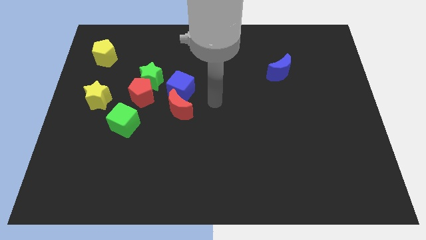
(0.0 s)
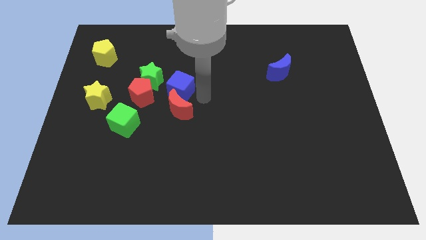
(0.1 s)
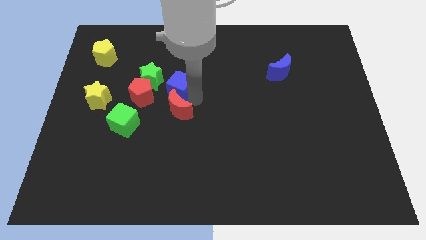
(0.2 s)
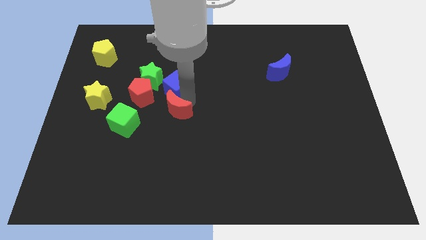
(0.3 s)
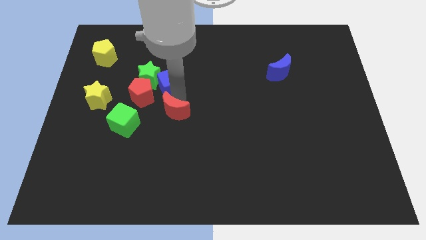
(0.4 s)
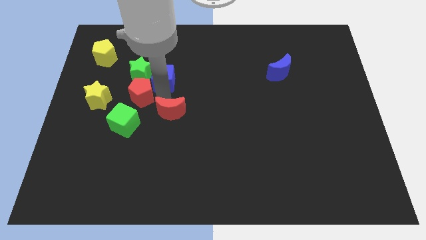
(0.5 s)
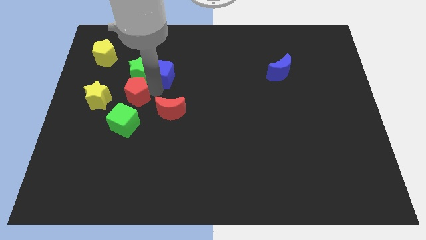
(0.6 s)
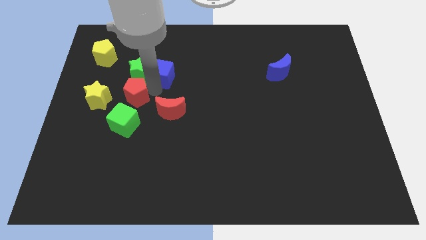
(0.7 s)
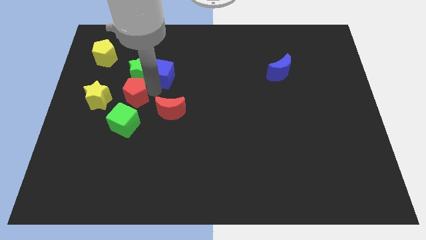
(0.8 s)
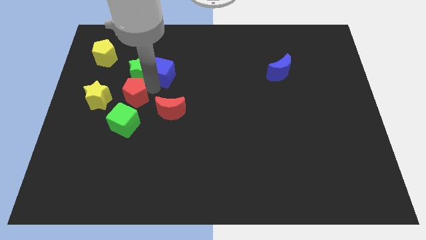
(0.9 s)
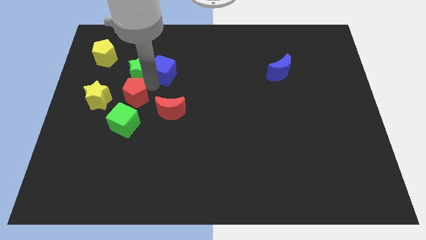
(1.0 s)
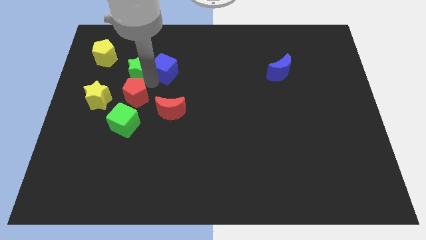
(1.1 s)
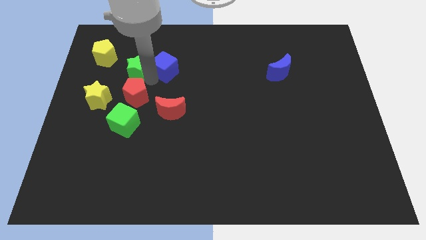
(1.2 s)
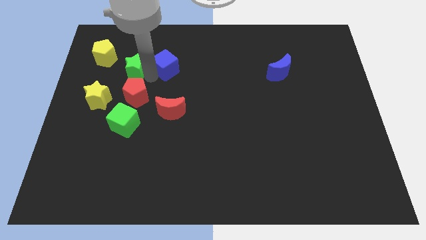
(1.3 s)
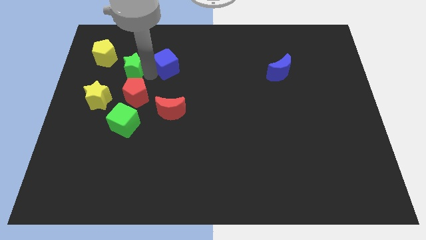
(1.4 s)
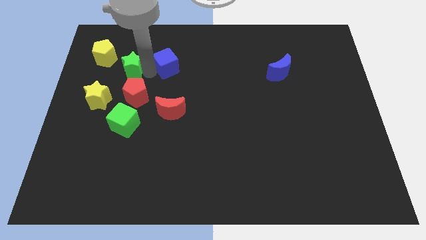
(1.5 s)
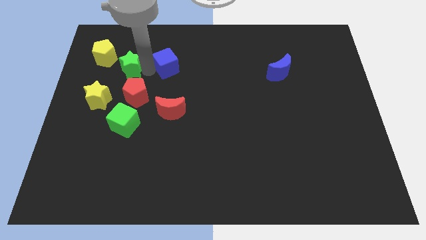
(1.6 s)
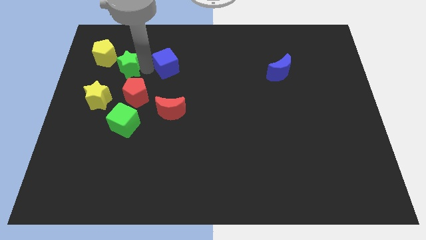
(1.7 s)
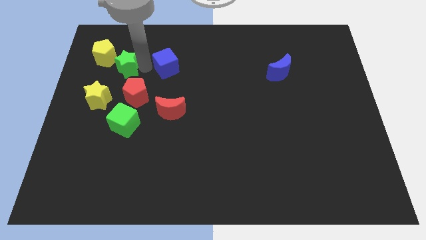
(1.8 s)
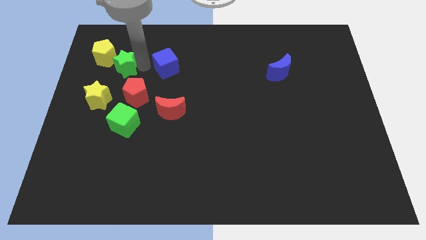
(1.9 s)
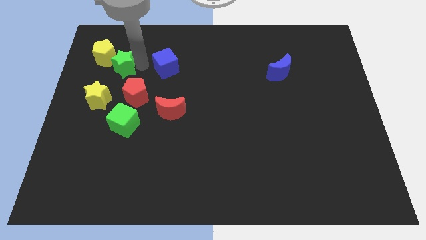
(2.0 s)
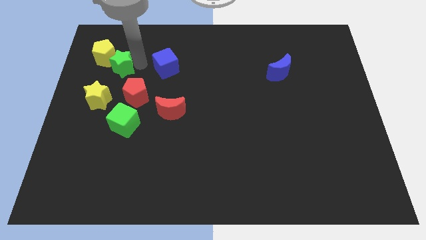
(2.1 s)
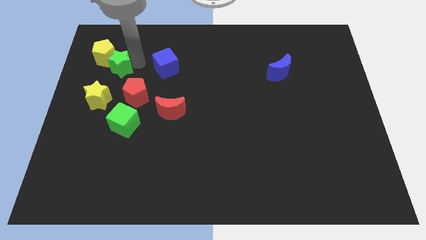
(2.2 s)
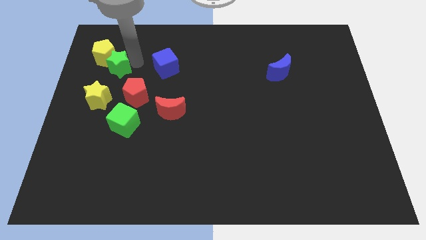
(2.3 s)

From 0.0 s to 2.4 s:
pull the green star apart from the red pentagon and blue cube

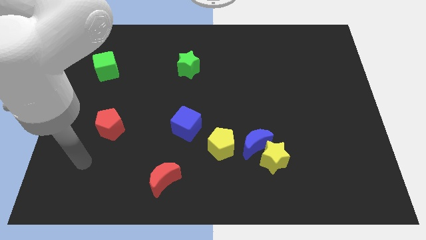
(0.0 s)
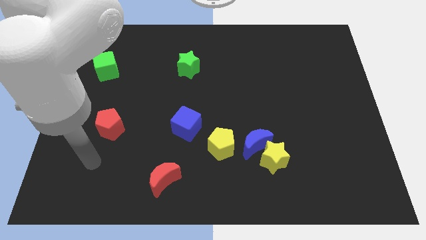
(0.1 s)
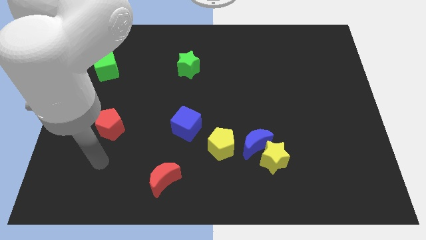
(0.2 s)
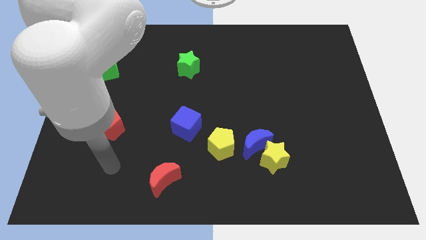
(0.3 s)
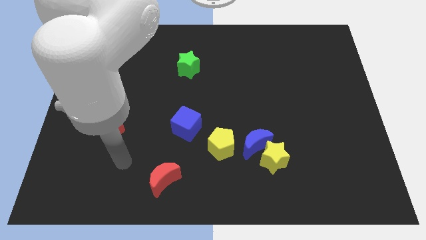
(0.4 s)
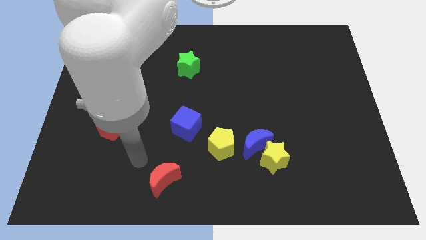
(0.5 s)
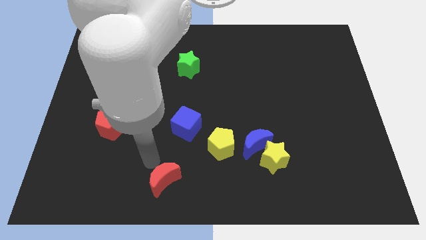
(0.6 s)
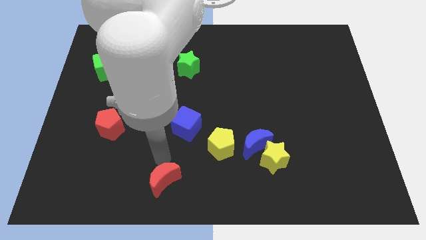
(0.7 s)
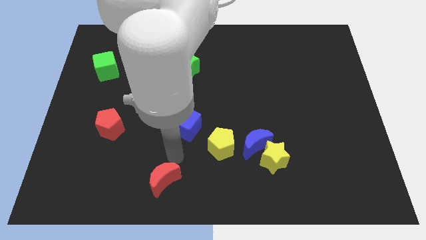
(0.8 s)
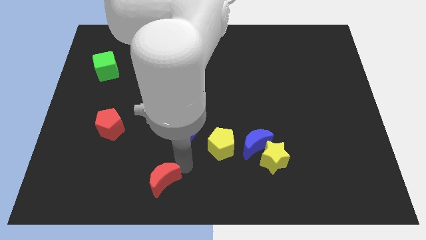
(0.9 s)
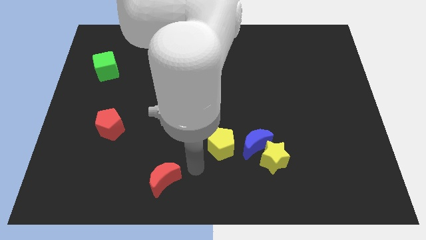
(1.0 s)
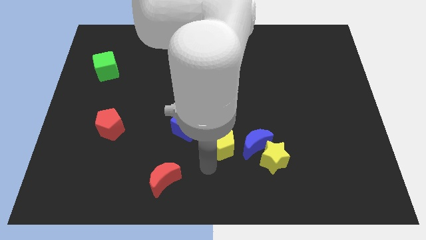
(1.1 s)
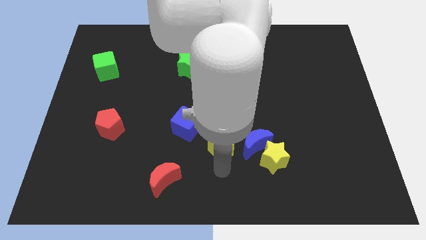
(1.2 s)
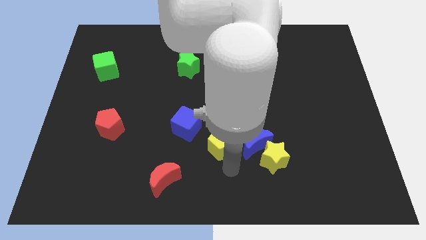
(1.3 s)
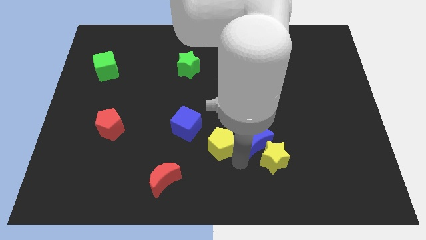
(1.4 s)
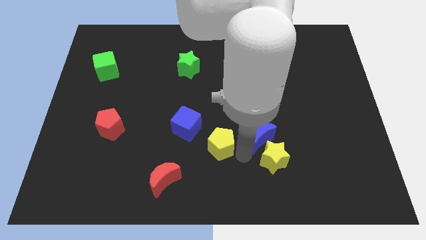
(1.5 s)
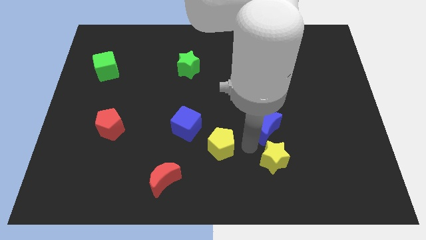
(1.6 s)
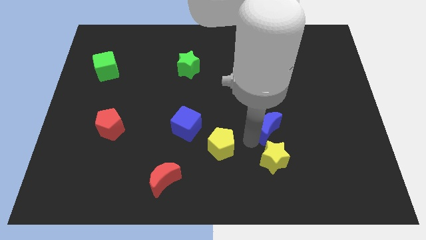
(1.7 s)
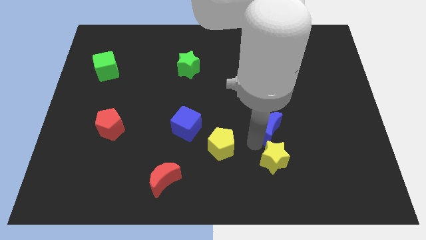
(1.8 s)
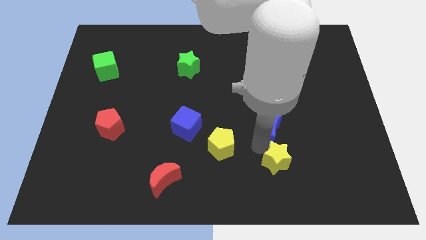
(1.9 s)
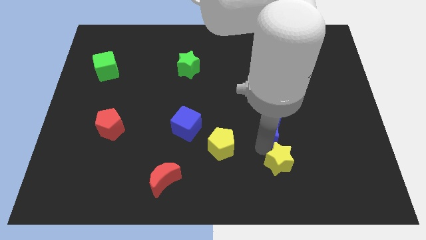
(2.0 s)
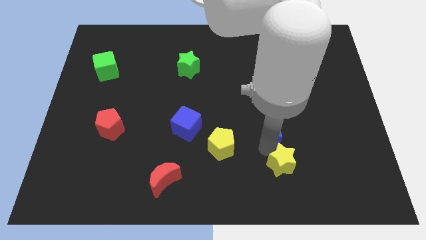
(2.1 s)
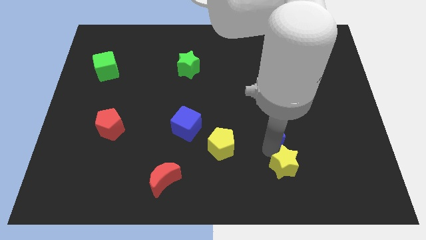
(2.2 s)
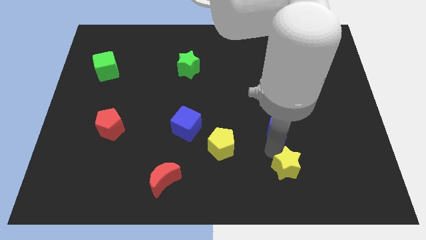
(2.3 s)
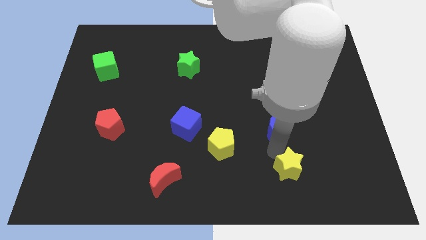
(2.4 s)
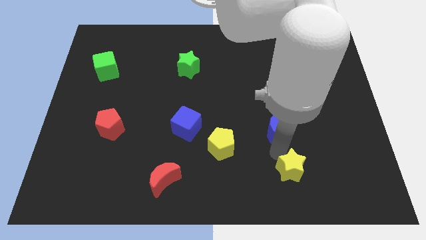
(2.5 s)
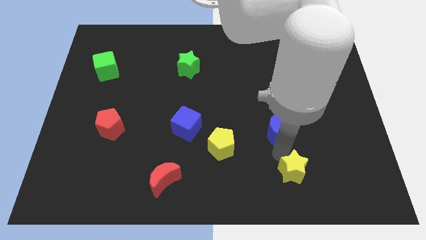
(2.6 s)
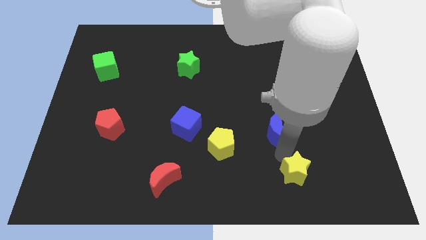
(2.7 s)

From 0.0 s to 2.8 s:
move the yellow star away from the blue moon

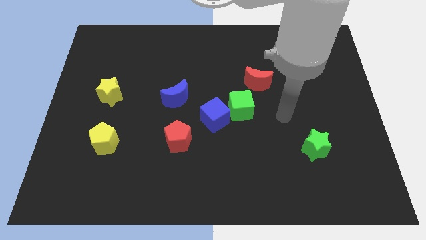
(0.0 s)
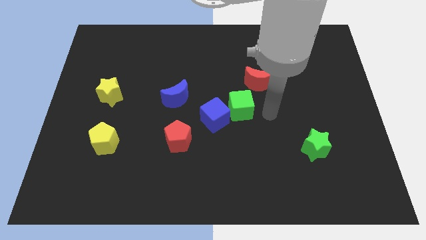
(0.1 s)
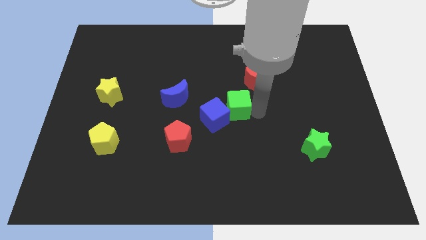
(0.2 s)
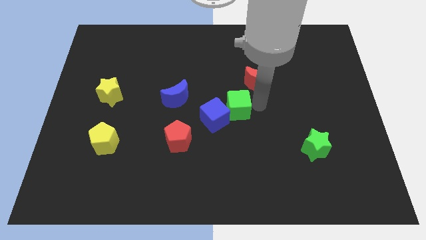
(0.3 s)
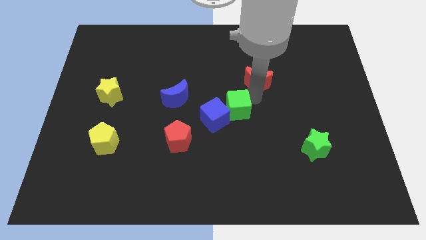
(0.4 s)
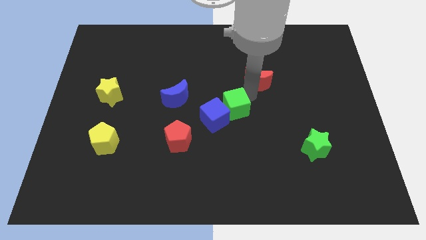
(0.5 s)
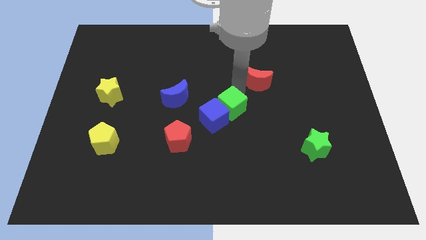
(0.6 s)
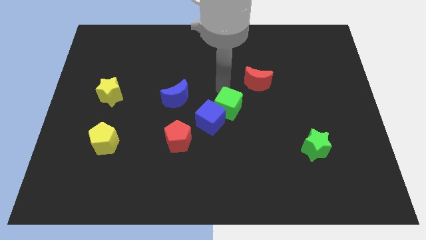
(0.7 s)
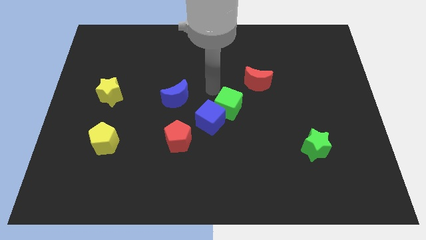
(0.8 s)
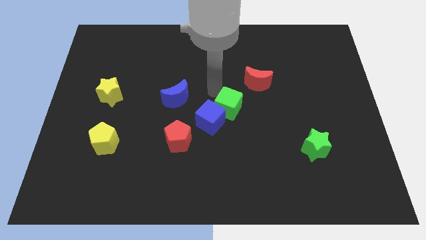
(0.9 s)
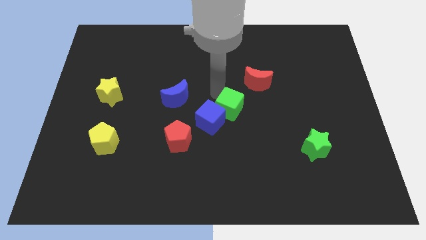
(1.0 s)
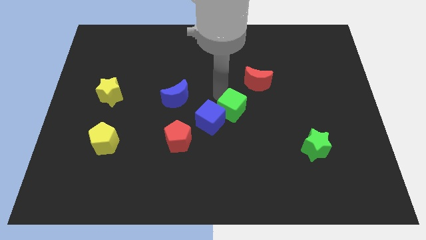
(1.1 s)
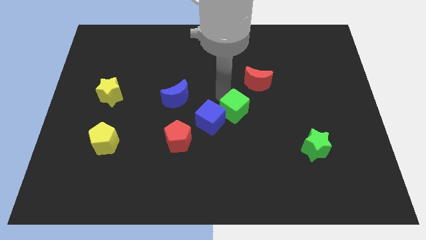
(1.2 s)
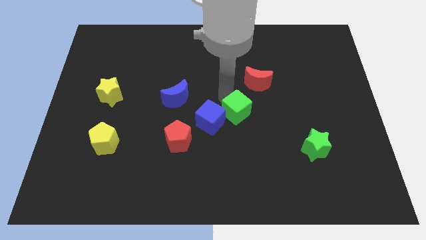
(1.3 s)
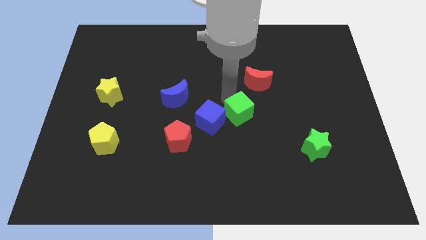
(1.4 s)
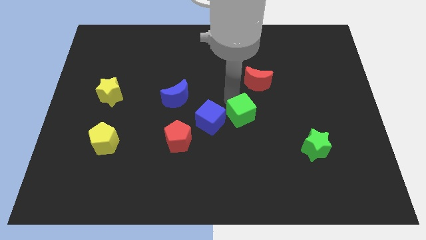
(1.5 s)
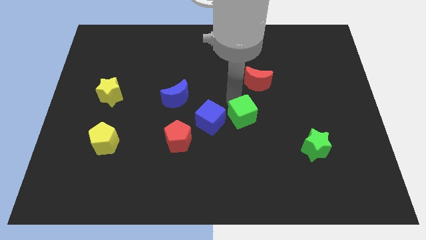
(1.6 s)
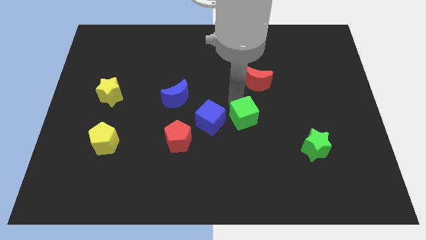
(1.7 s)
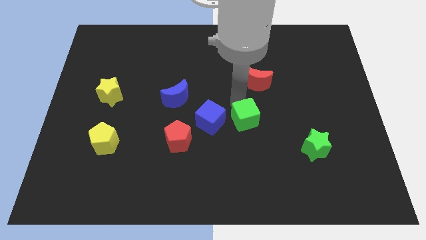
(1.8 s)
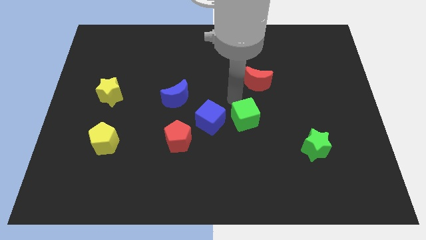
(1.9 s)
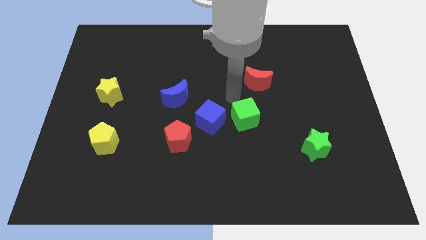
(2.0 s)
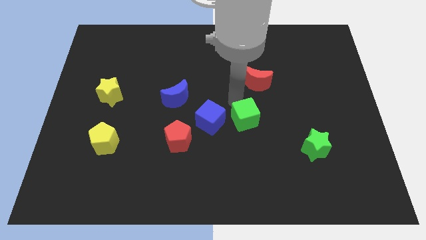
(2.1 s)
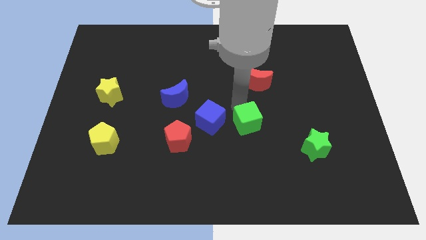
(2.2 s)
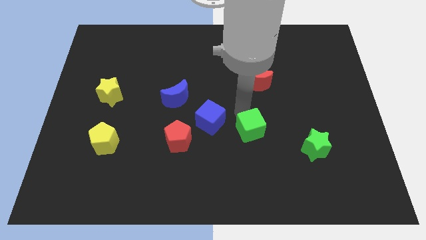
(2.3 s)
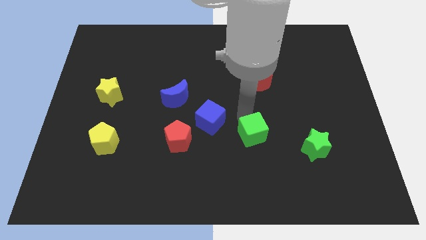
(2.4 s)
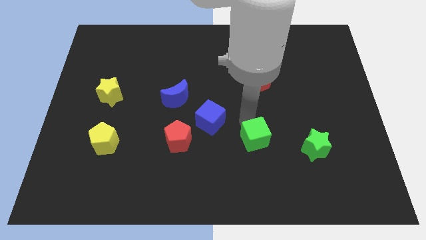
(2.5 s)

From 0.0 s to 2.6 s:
move the green cube away from the blue cube and red moon

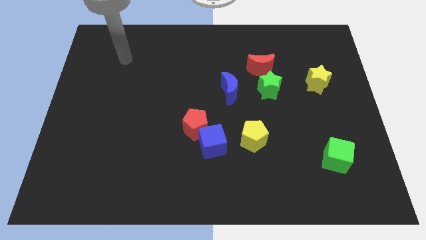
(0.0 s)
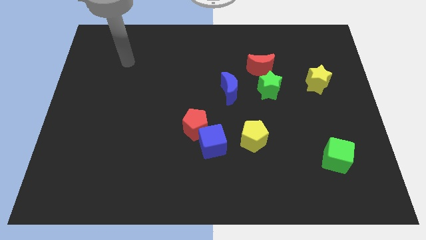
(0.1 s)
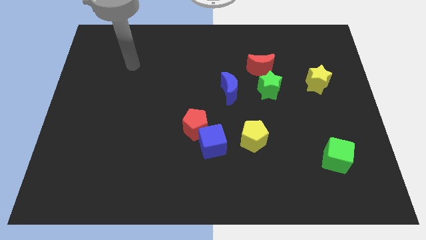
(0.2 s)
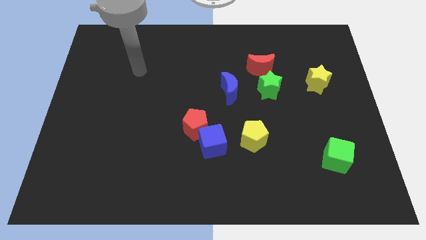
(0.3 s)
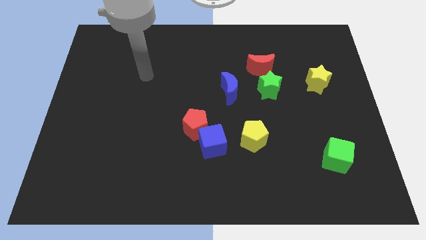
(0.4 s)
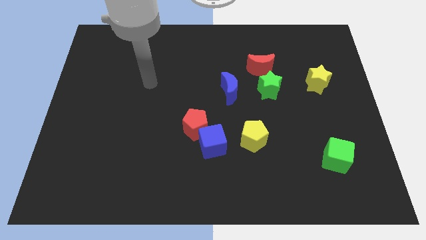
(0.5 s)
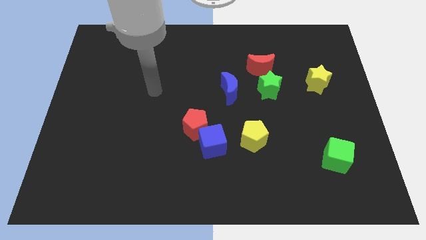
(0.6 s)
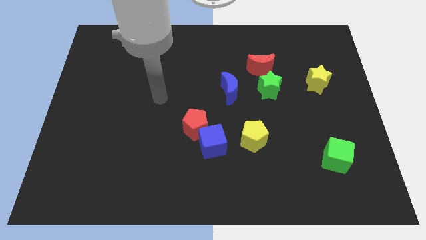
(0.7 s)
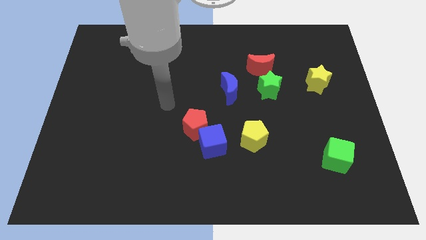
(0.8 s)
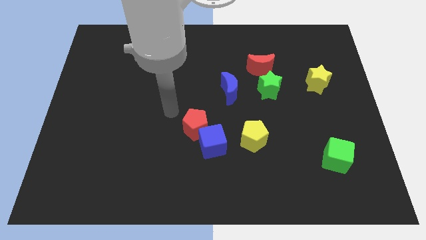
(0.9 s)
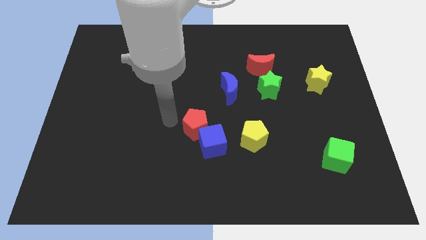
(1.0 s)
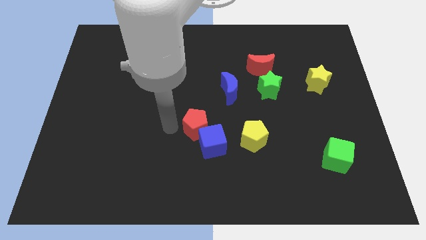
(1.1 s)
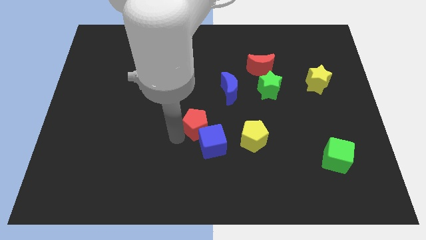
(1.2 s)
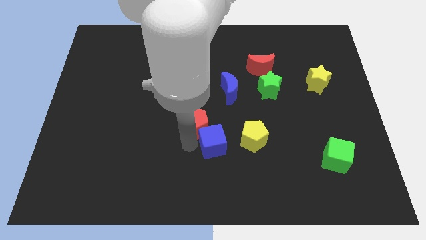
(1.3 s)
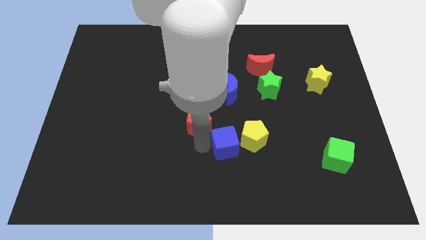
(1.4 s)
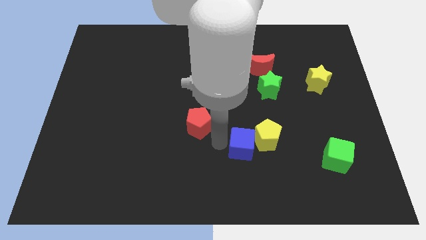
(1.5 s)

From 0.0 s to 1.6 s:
pull the red pentagon apart from the blue cube
